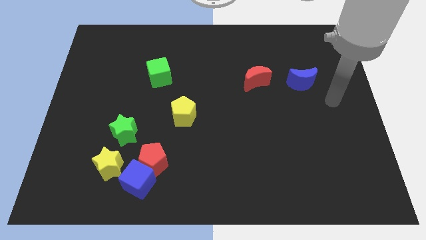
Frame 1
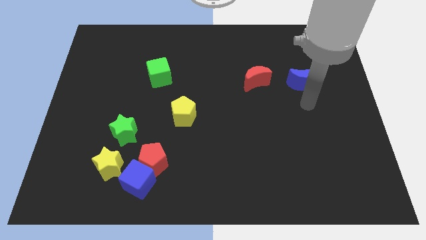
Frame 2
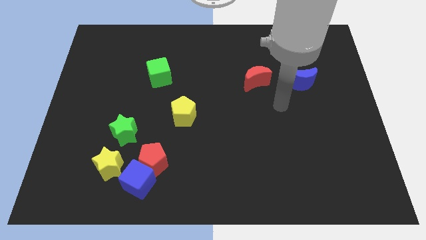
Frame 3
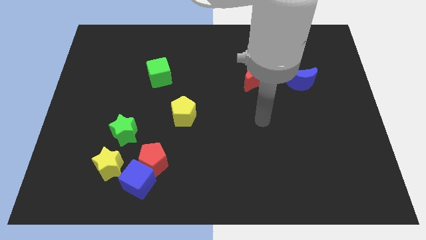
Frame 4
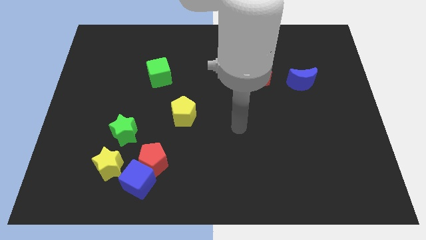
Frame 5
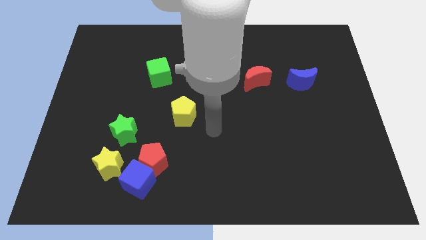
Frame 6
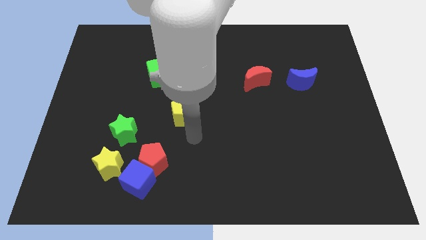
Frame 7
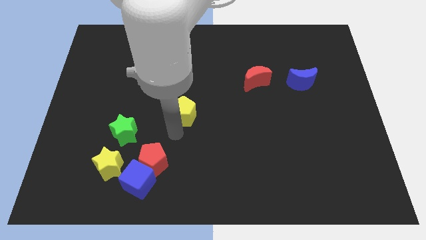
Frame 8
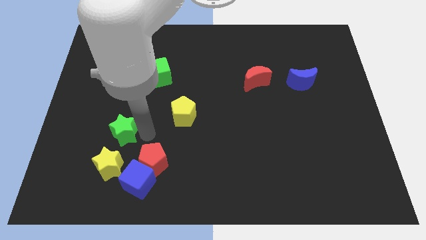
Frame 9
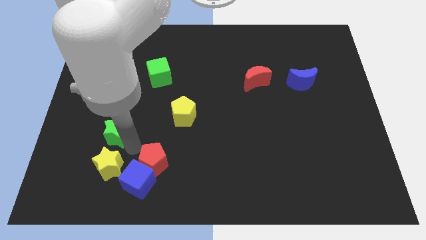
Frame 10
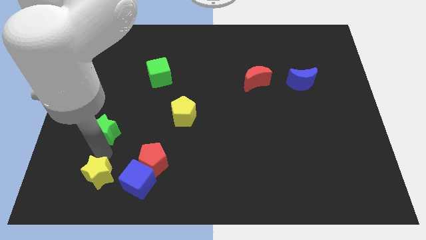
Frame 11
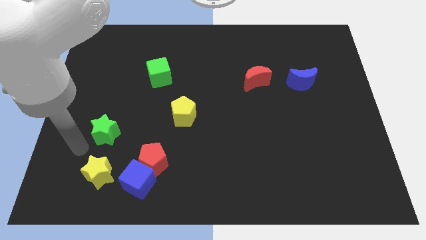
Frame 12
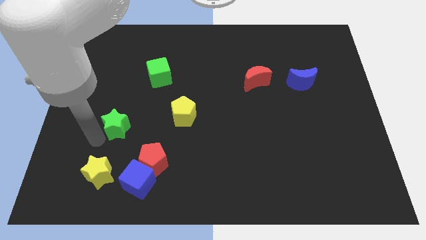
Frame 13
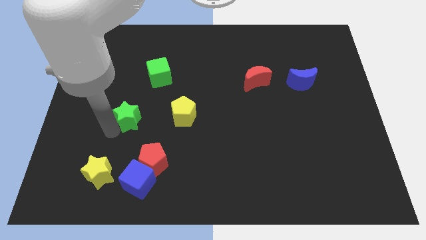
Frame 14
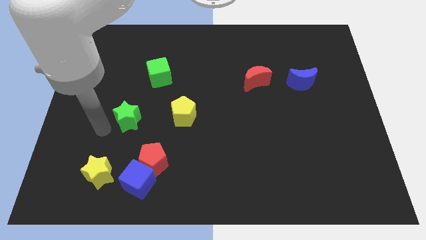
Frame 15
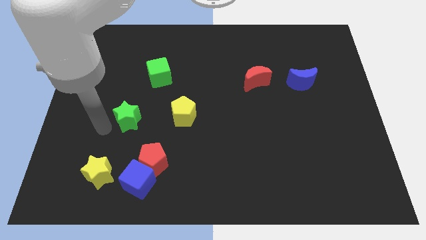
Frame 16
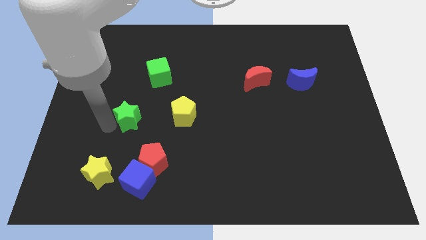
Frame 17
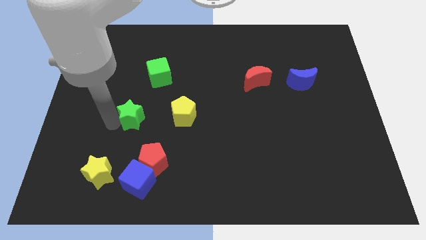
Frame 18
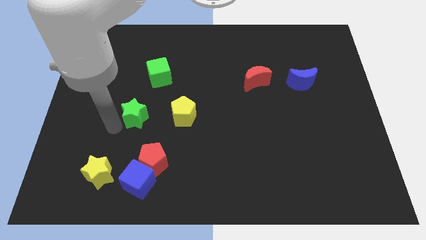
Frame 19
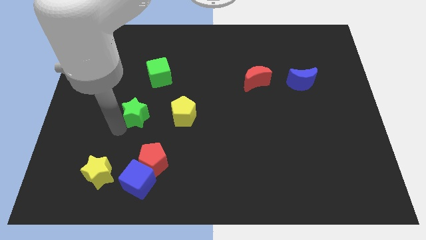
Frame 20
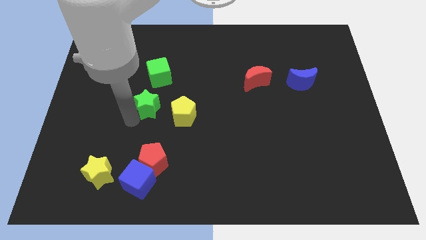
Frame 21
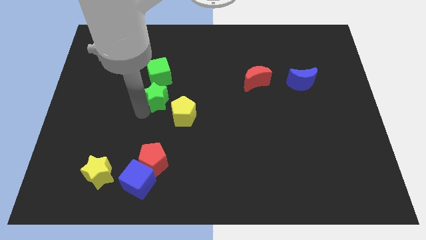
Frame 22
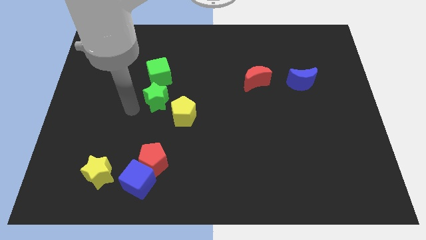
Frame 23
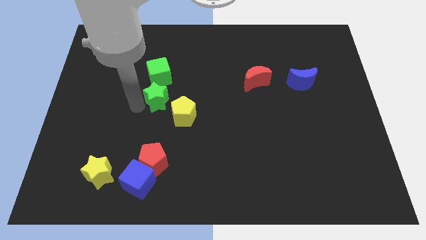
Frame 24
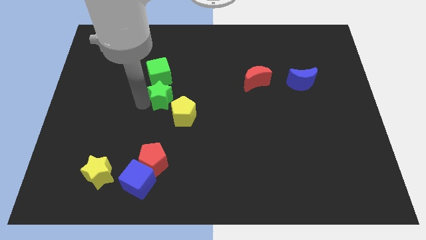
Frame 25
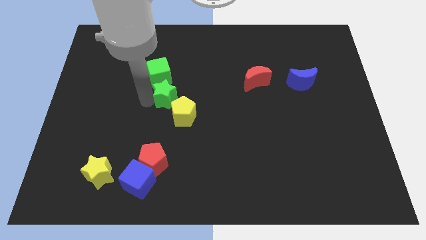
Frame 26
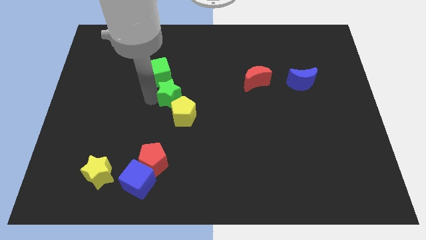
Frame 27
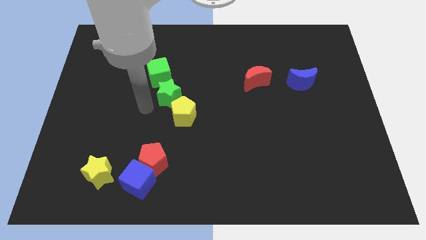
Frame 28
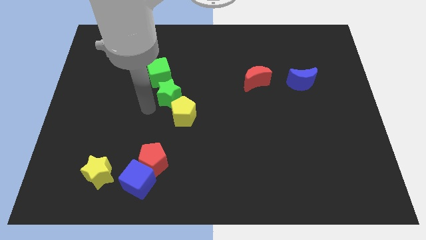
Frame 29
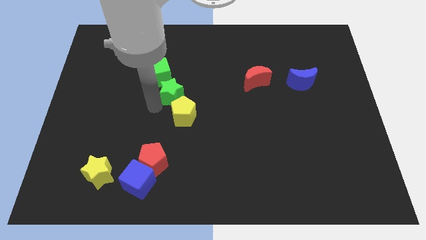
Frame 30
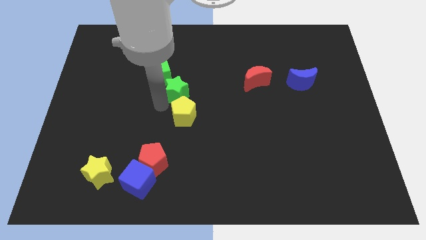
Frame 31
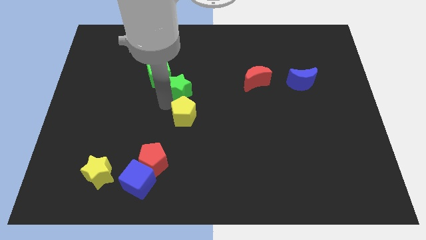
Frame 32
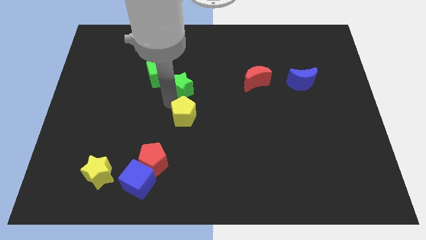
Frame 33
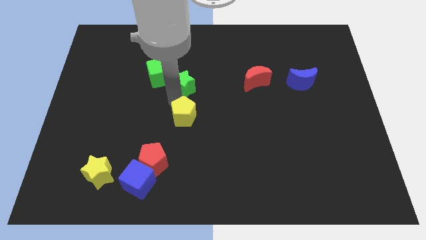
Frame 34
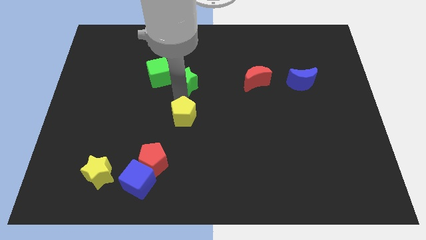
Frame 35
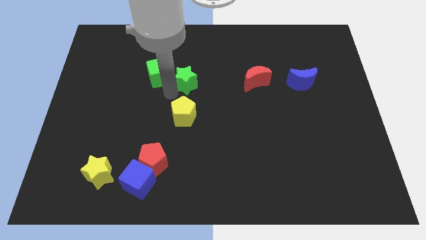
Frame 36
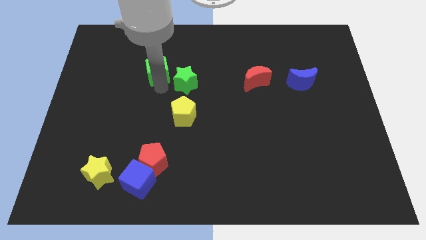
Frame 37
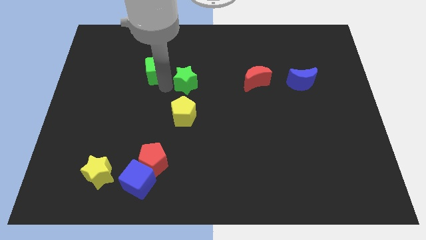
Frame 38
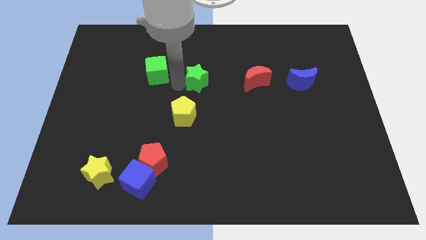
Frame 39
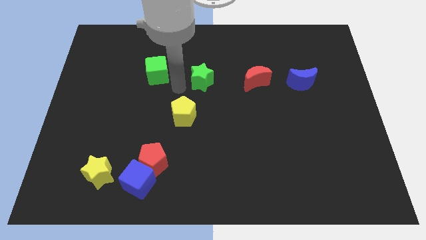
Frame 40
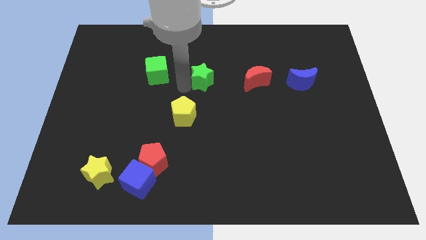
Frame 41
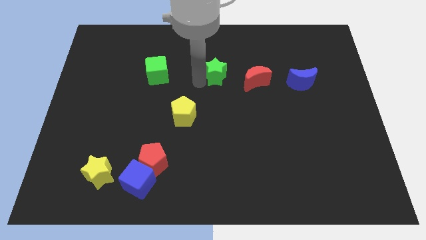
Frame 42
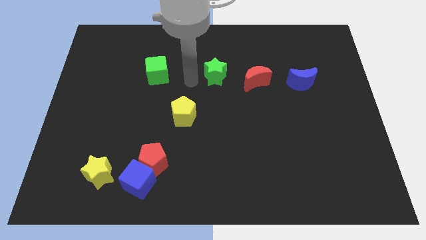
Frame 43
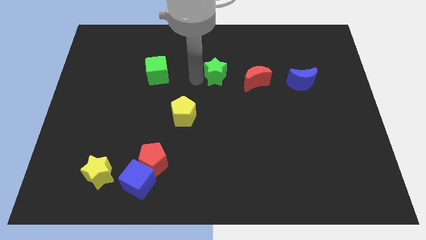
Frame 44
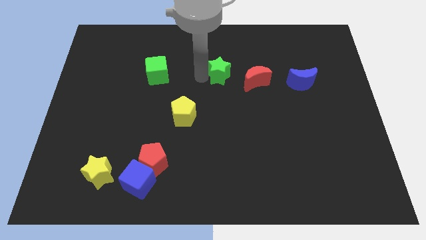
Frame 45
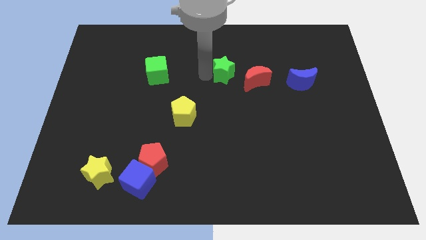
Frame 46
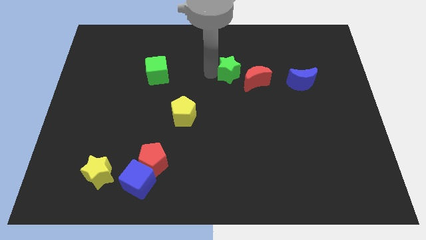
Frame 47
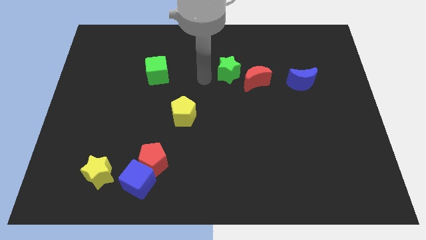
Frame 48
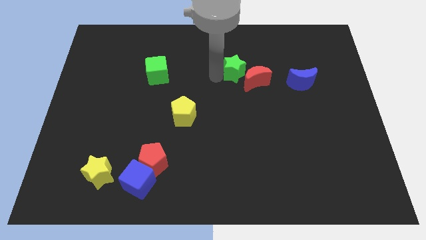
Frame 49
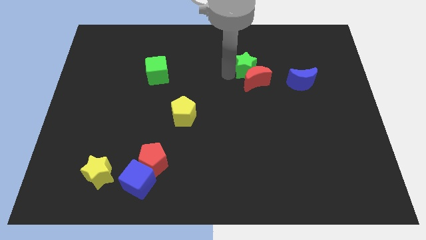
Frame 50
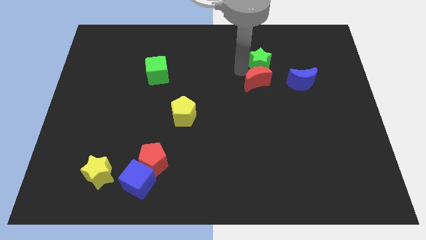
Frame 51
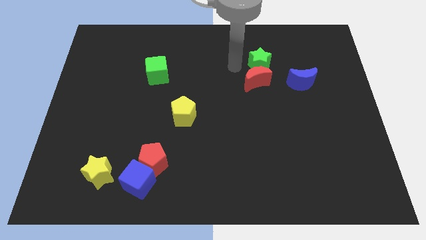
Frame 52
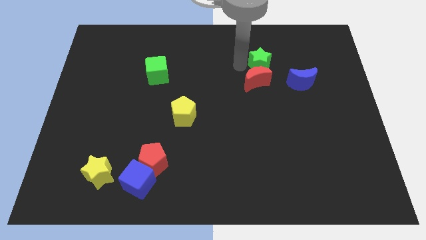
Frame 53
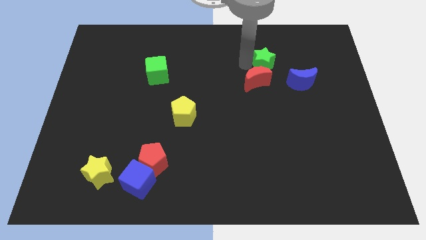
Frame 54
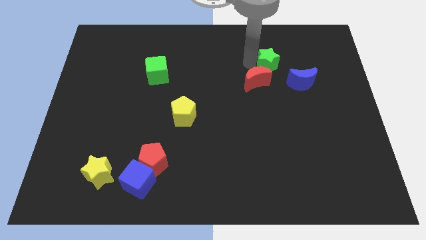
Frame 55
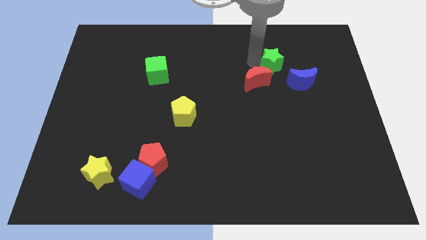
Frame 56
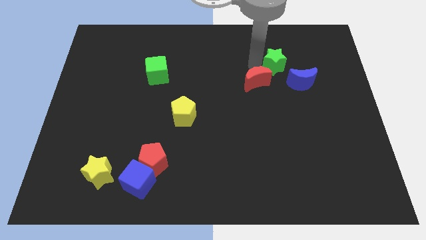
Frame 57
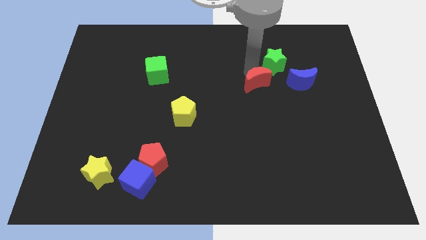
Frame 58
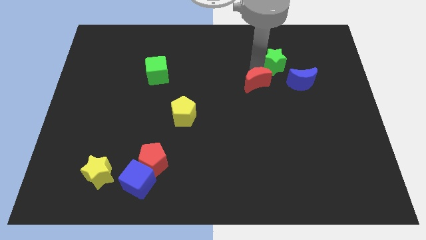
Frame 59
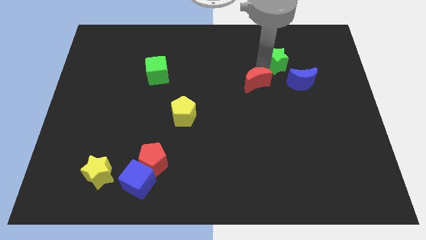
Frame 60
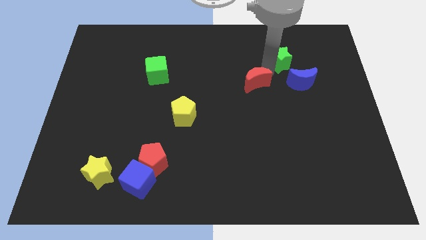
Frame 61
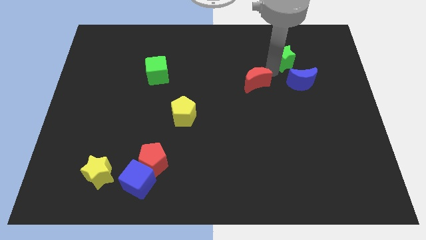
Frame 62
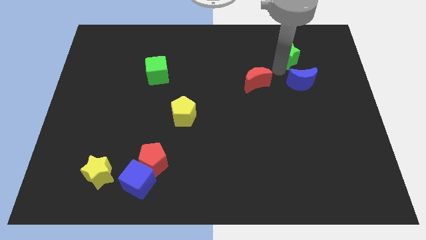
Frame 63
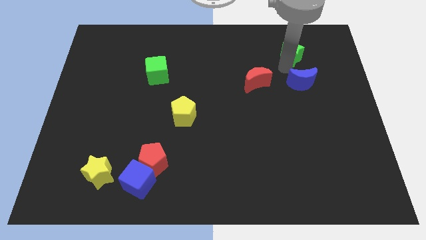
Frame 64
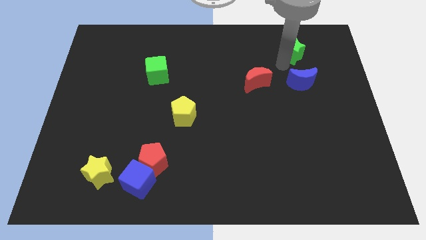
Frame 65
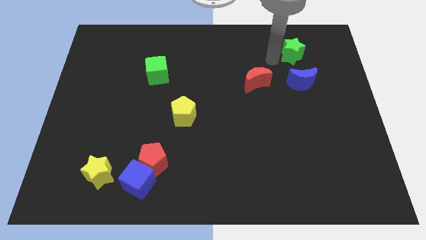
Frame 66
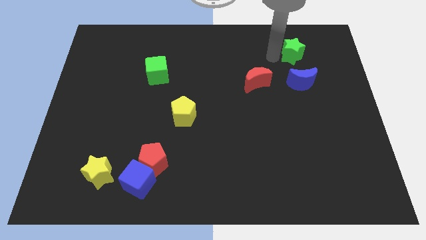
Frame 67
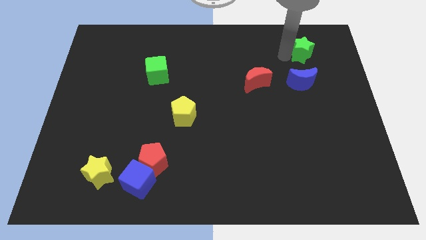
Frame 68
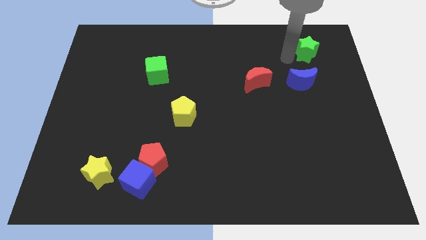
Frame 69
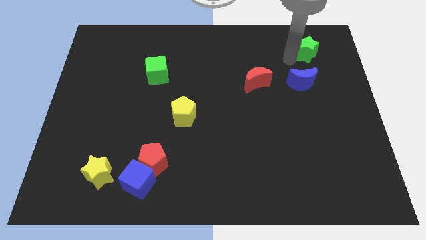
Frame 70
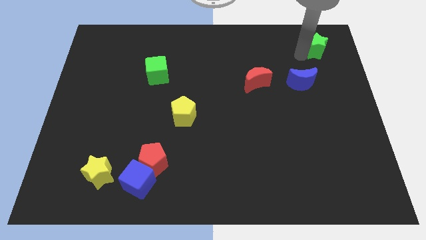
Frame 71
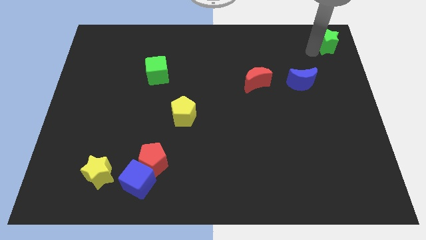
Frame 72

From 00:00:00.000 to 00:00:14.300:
move the green star to the top right corner
